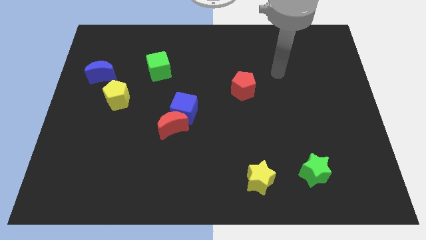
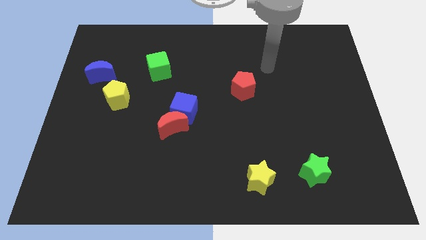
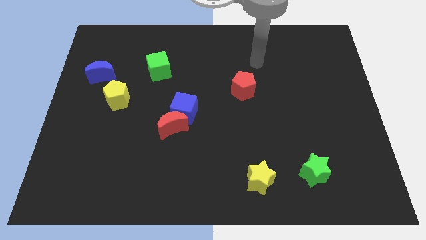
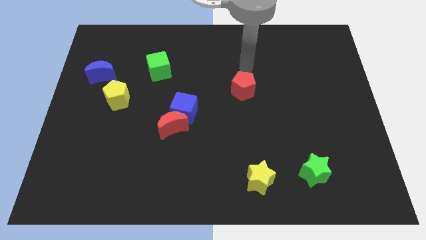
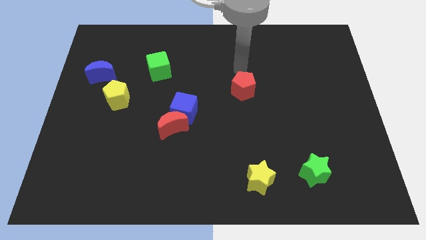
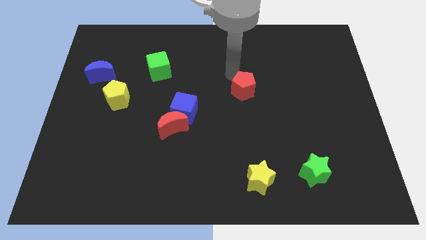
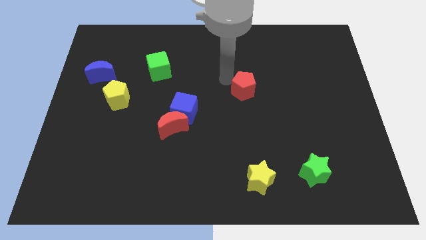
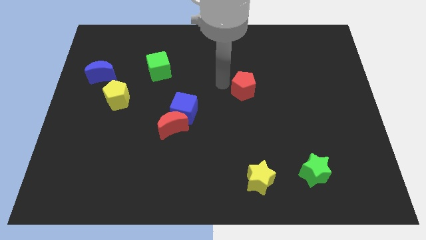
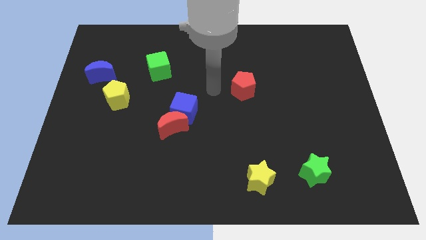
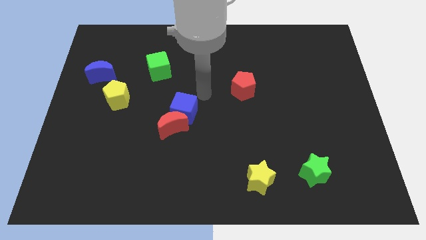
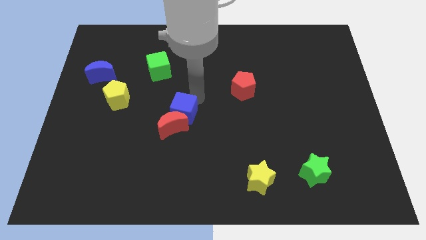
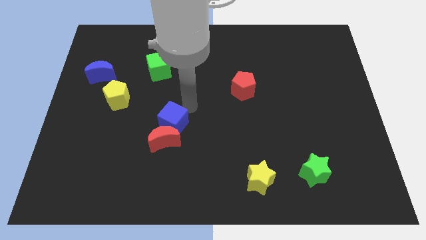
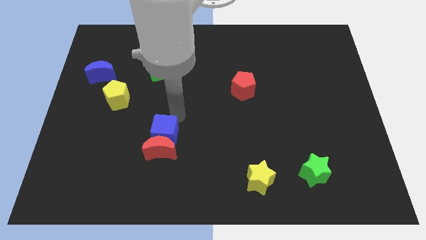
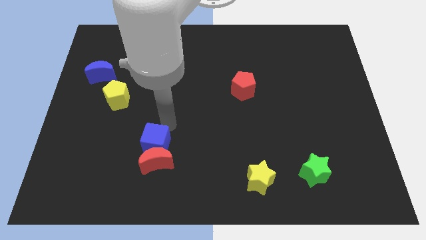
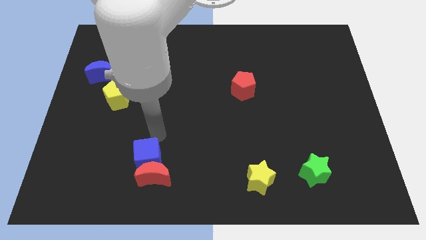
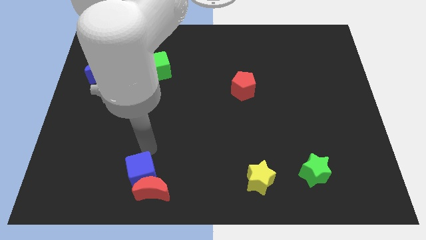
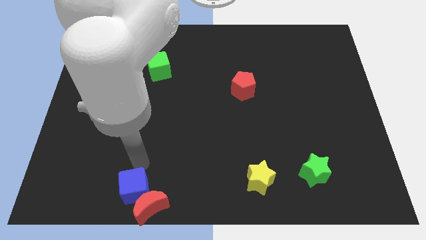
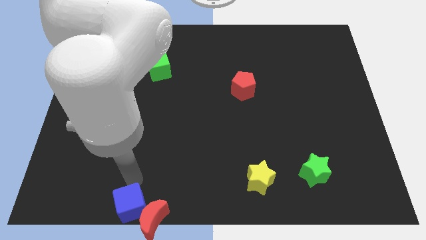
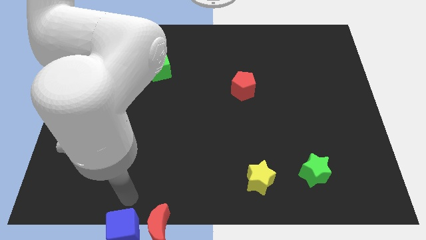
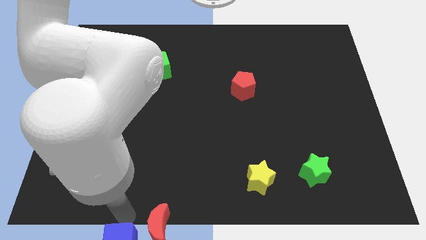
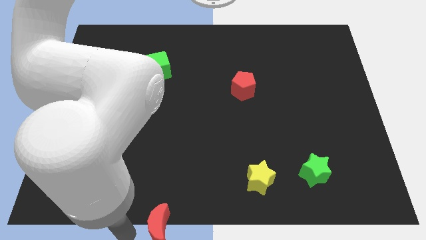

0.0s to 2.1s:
pull the red moon apart from the blue cube

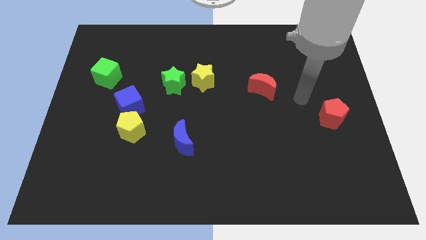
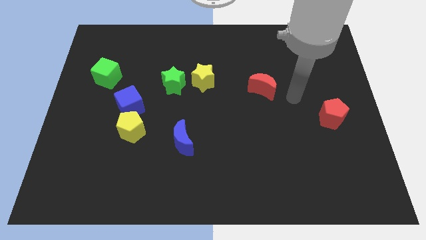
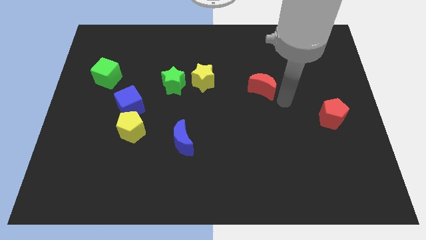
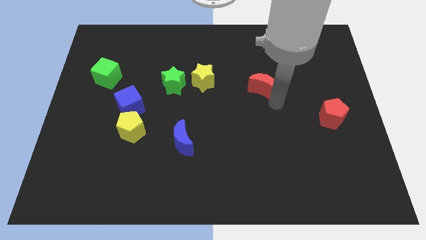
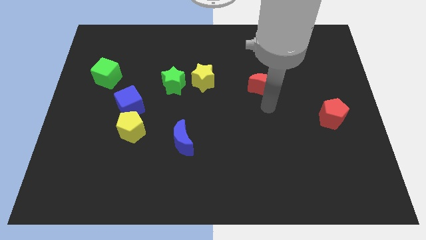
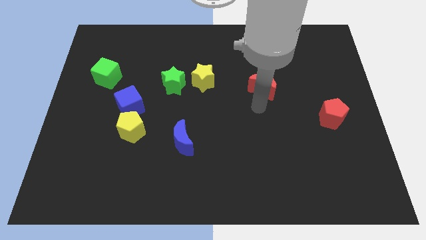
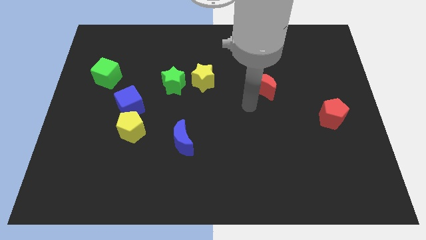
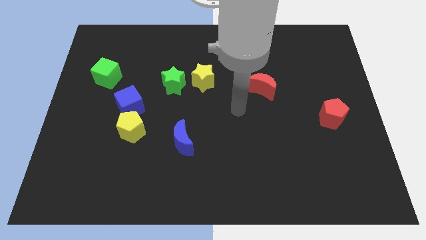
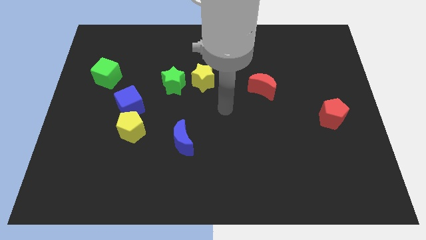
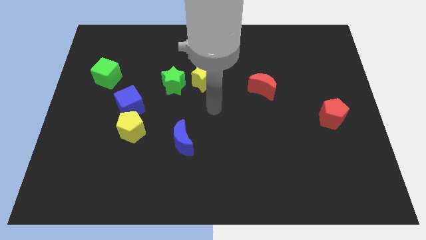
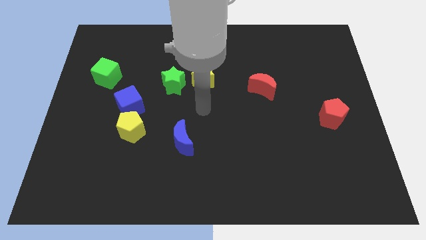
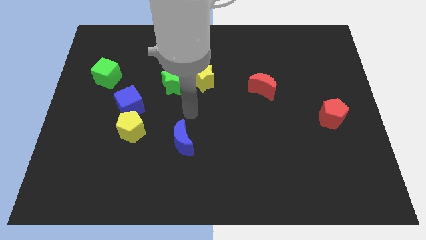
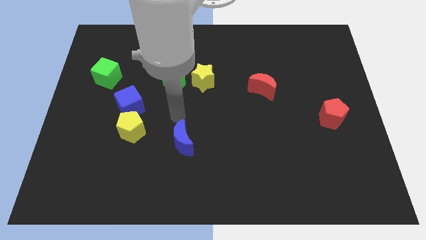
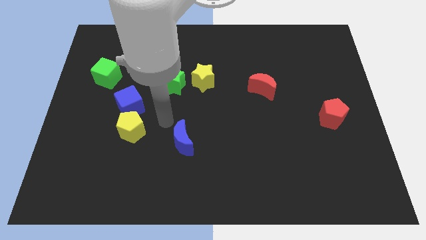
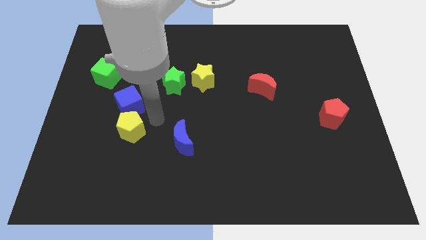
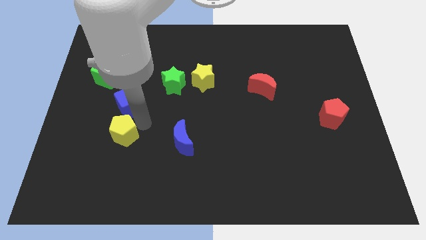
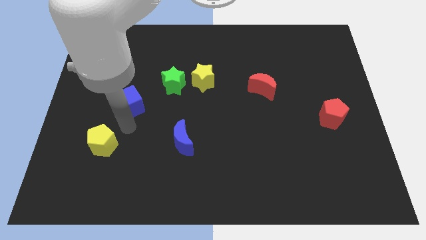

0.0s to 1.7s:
separate the blue cube from the yellow pentagon

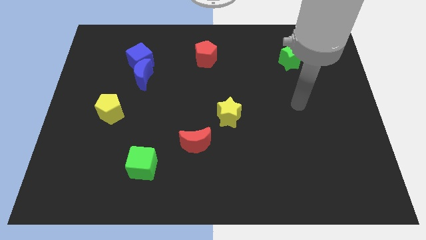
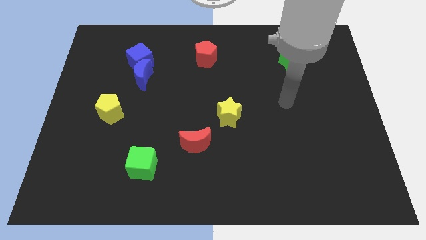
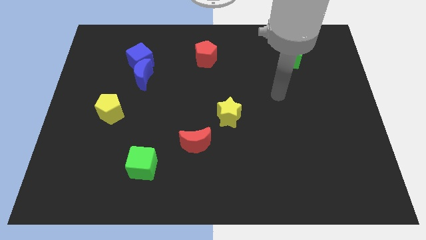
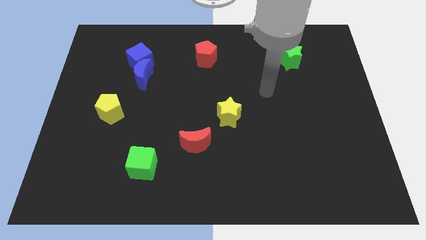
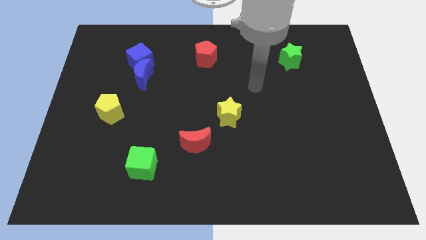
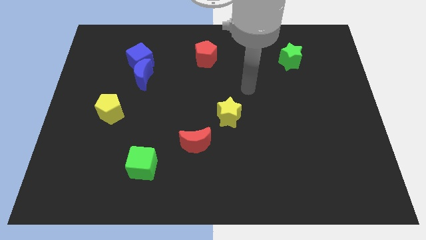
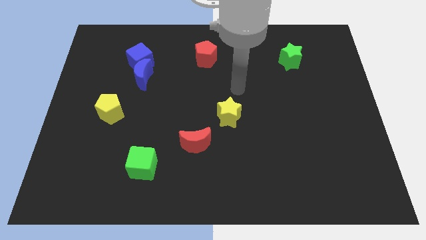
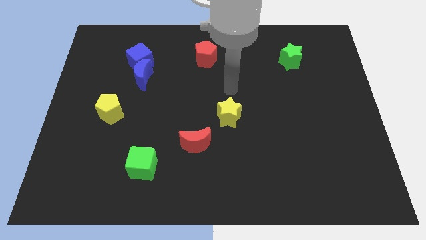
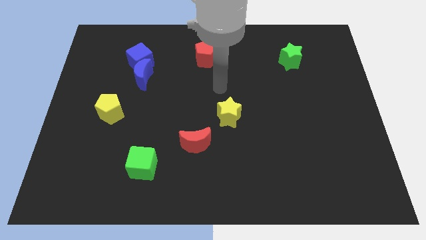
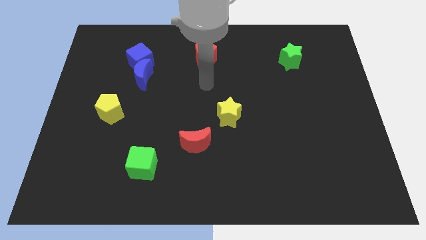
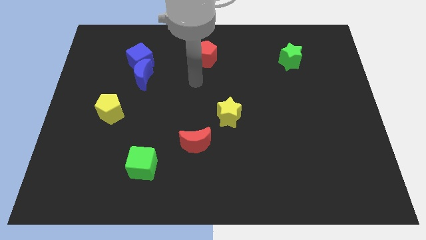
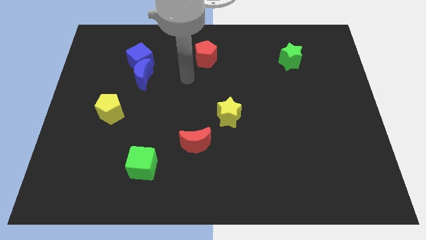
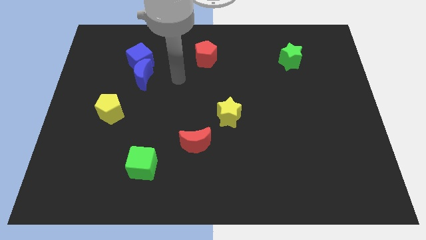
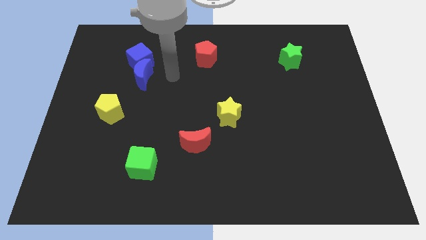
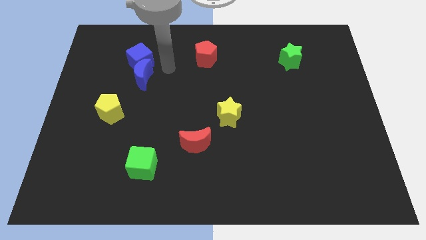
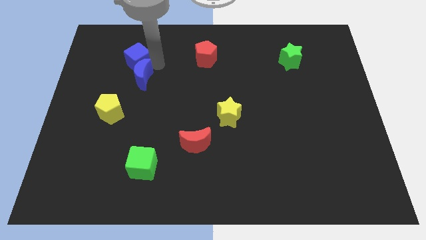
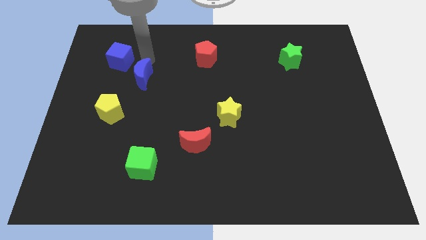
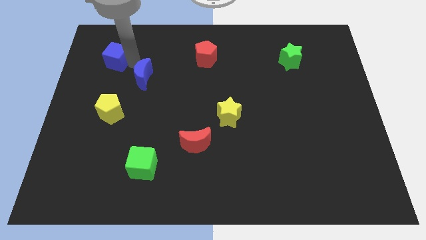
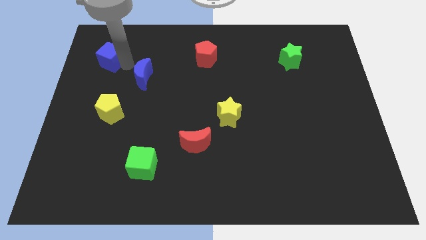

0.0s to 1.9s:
separate the blue moon from the blue cube

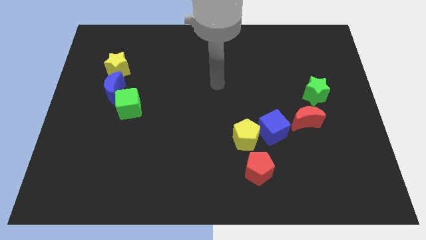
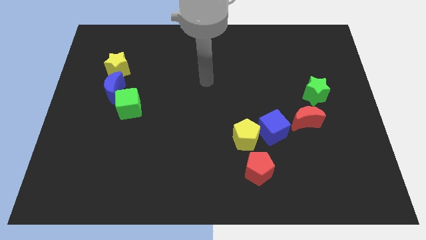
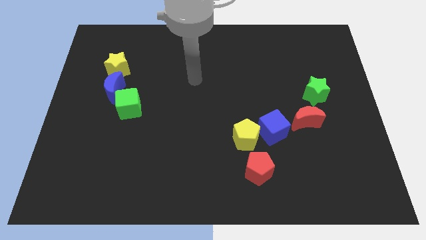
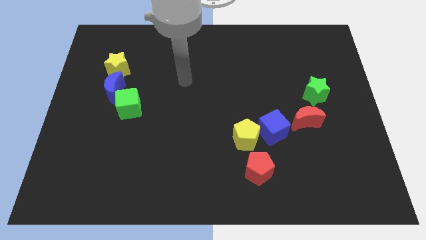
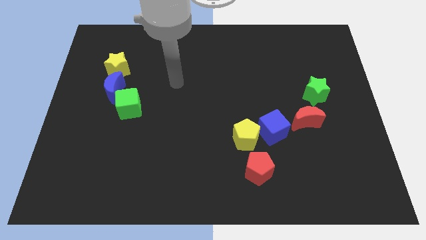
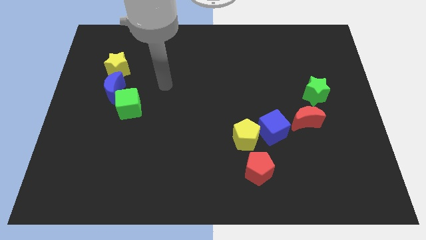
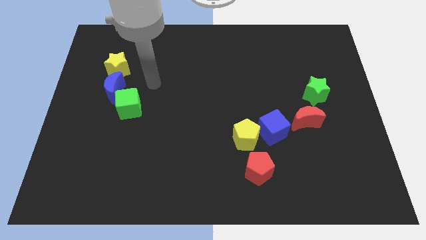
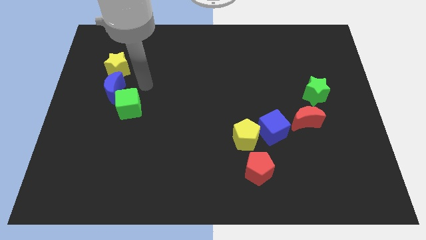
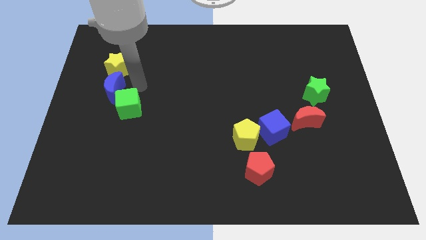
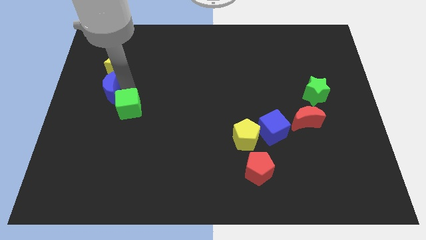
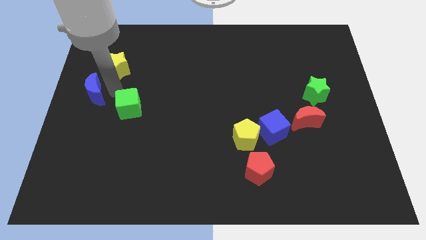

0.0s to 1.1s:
move the green cube away from the blue moon

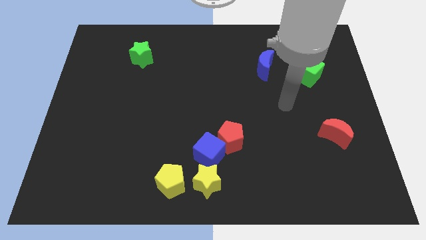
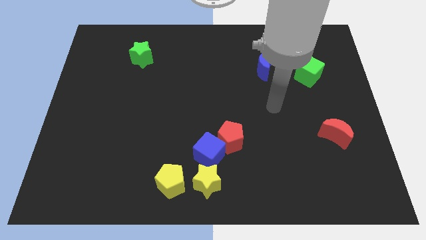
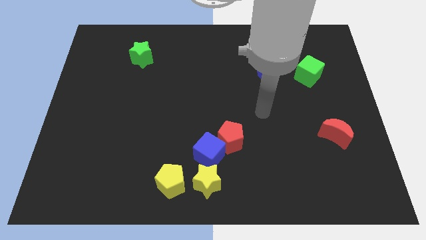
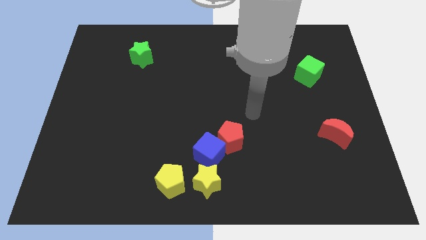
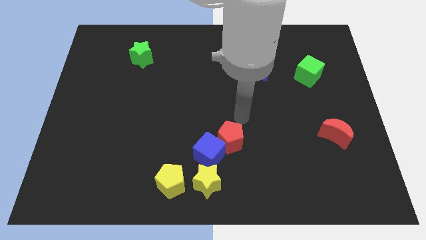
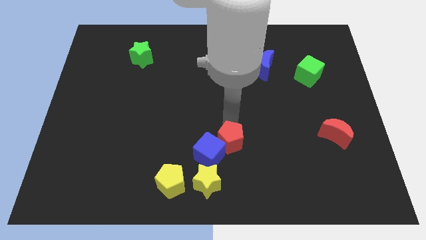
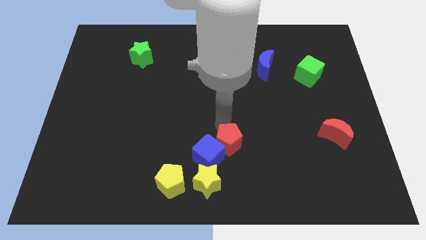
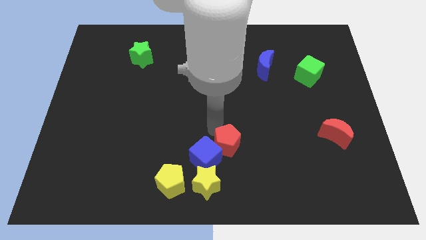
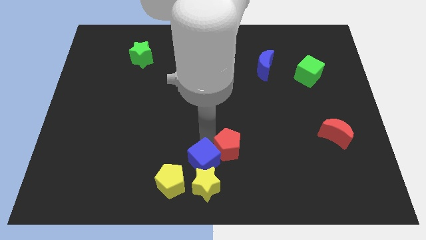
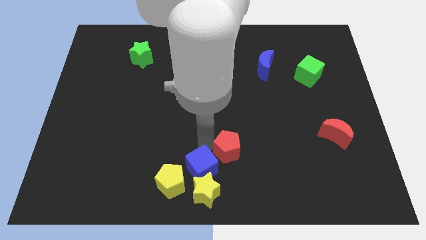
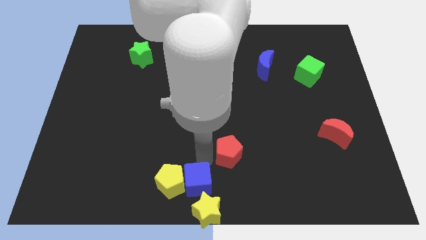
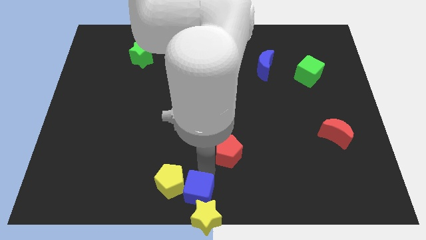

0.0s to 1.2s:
move the red pentagon away from the blue cube

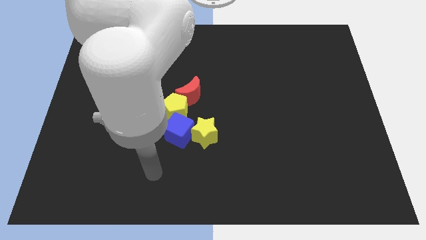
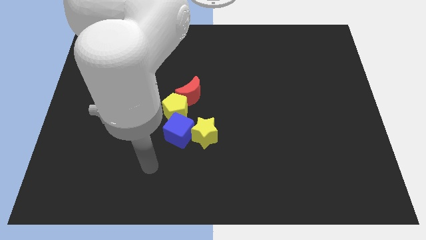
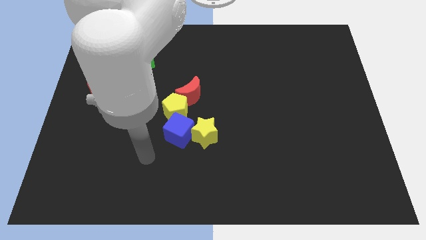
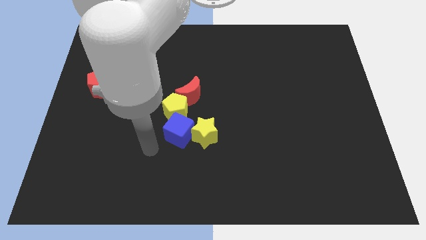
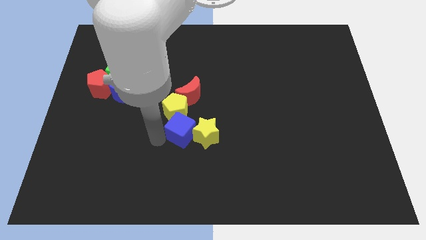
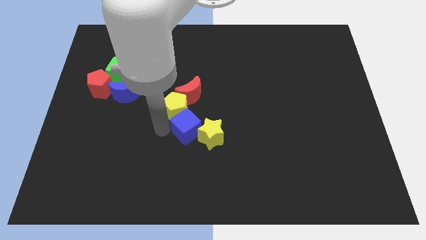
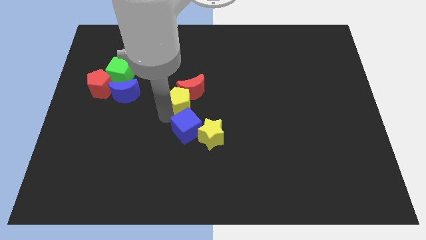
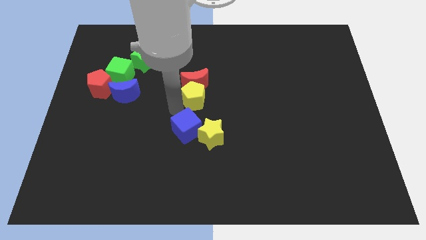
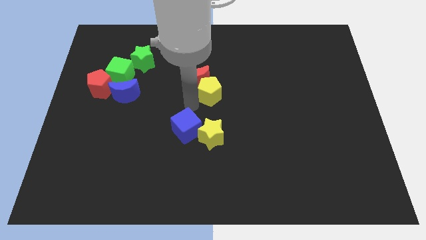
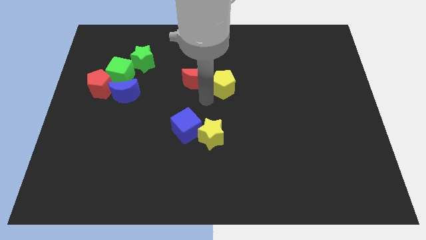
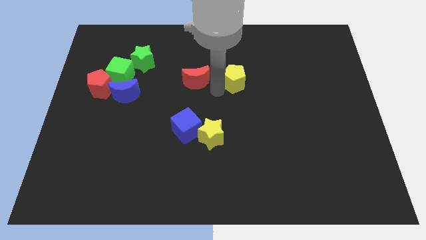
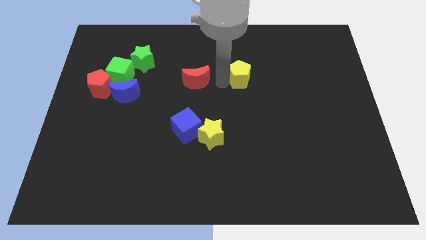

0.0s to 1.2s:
pull the red moon apart from the yellow pentagon
